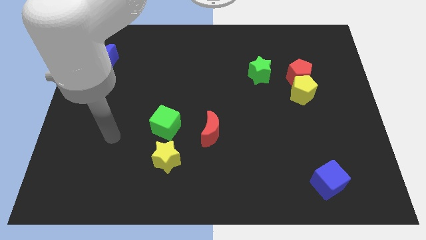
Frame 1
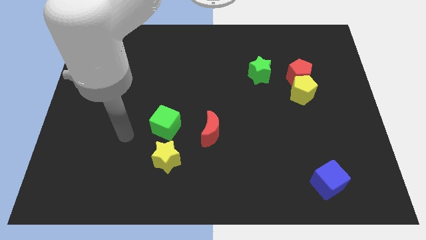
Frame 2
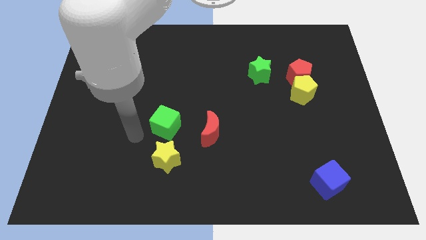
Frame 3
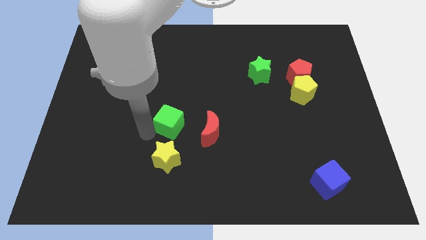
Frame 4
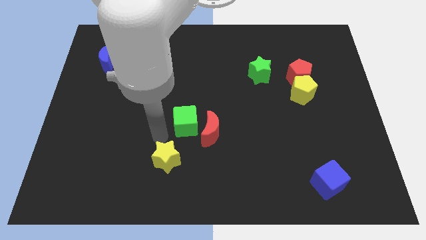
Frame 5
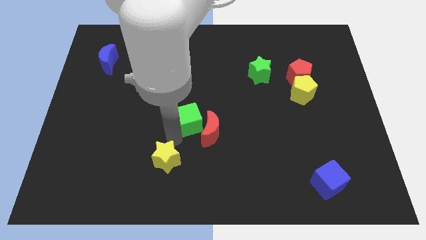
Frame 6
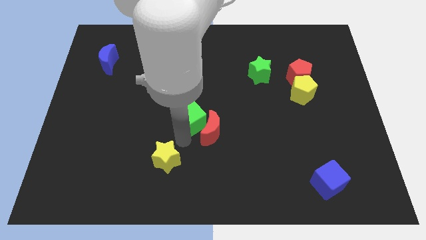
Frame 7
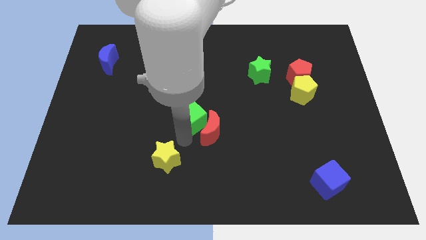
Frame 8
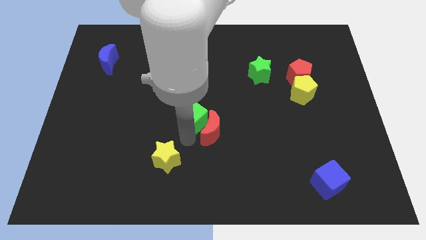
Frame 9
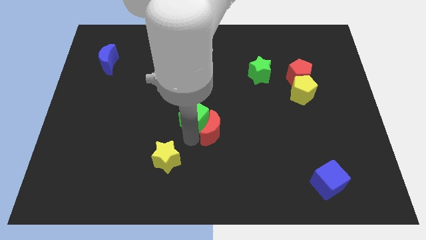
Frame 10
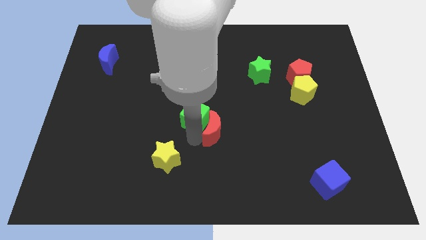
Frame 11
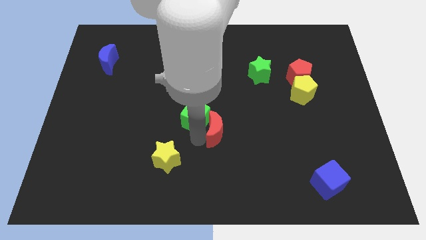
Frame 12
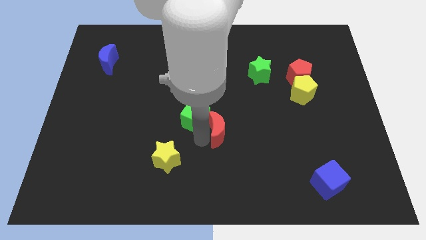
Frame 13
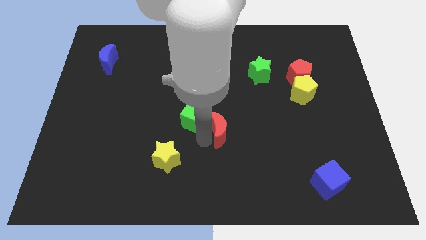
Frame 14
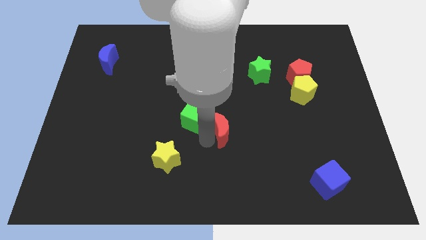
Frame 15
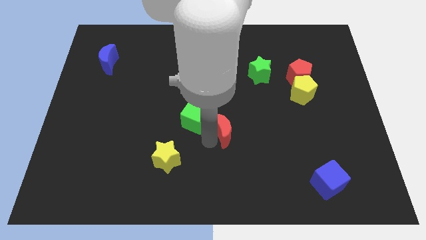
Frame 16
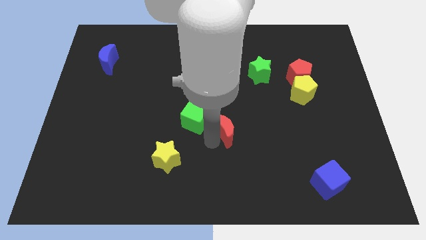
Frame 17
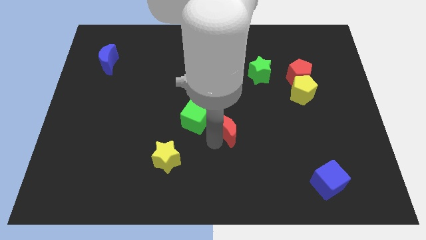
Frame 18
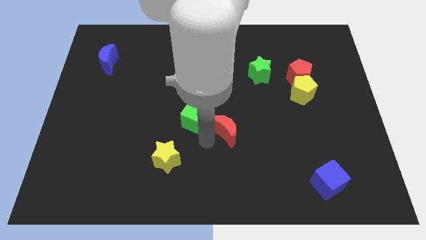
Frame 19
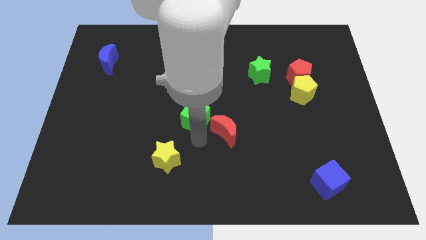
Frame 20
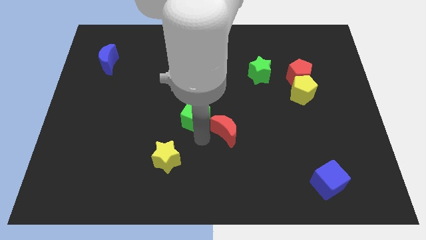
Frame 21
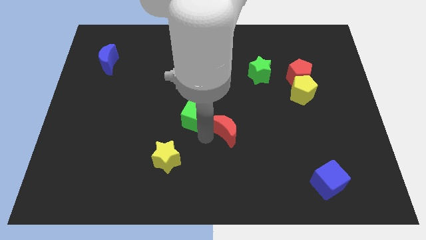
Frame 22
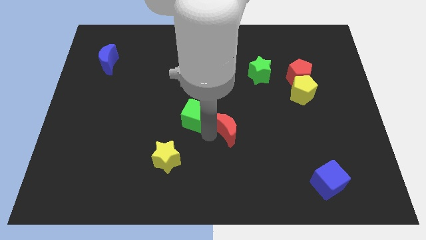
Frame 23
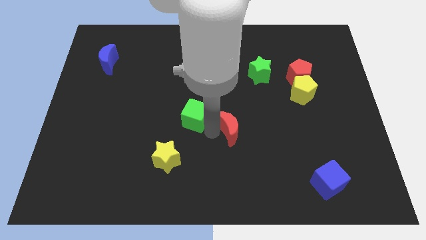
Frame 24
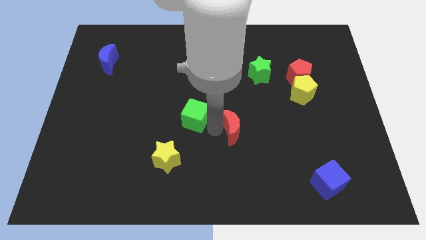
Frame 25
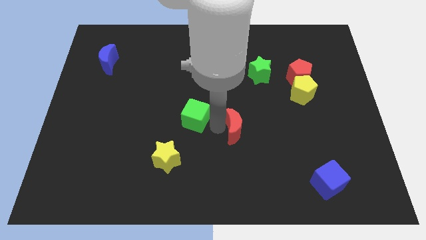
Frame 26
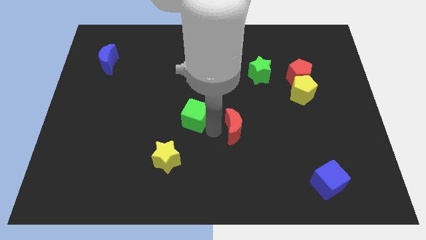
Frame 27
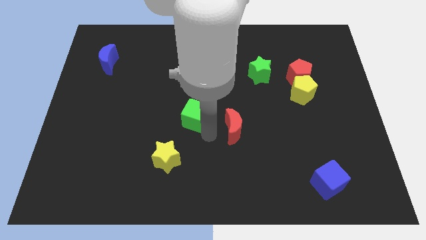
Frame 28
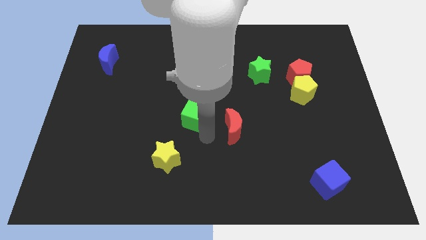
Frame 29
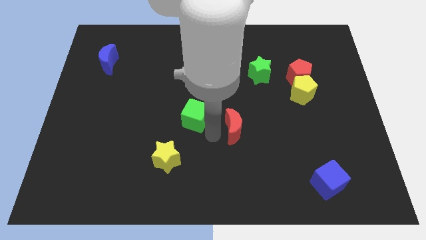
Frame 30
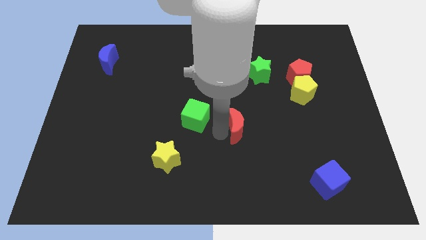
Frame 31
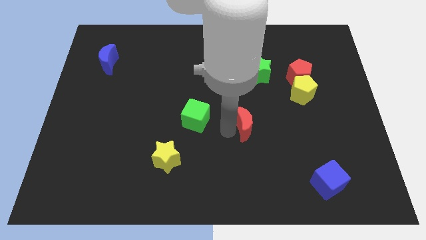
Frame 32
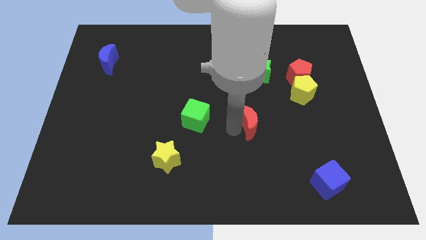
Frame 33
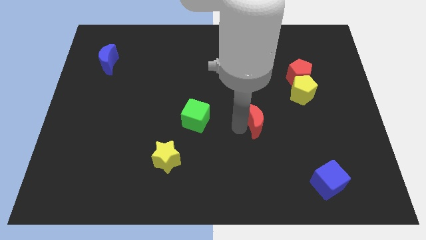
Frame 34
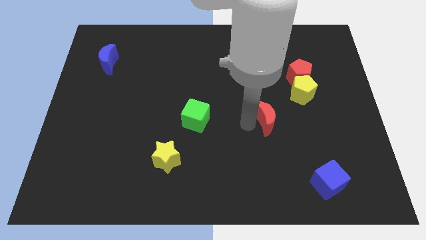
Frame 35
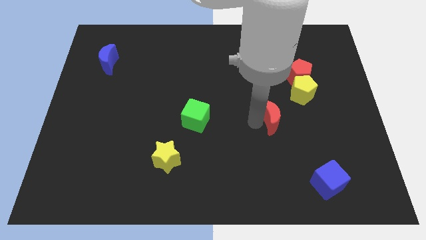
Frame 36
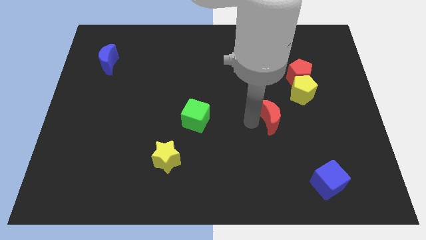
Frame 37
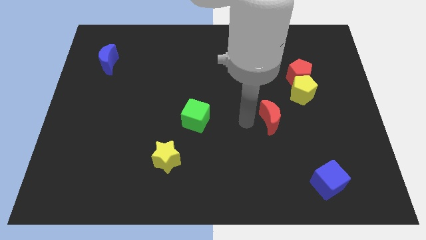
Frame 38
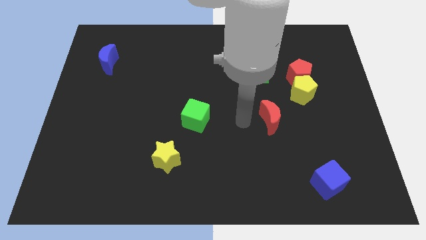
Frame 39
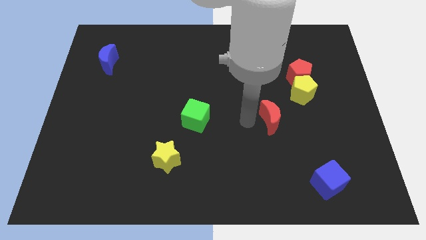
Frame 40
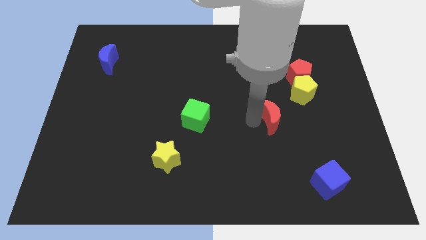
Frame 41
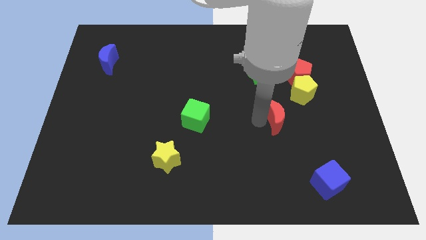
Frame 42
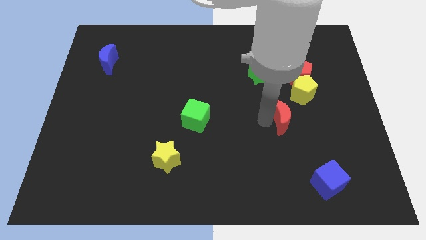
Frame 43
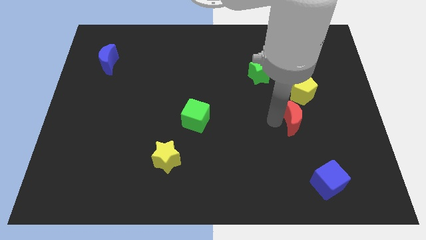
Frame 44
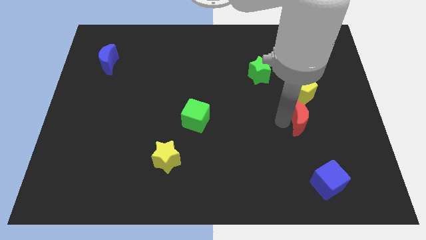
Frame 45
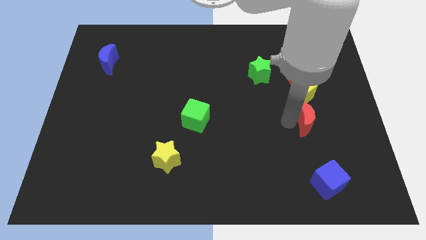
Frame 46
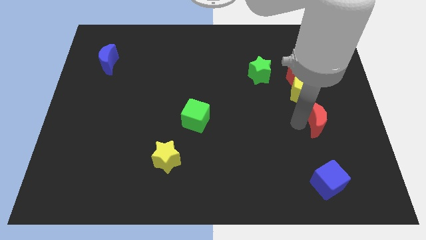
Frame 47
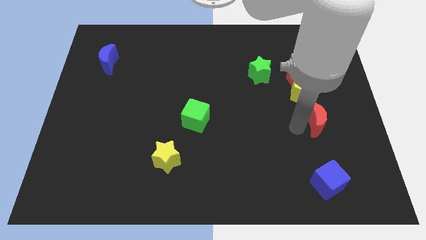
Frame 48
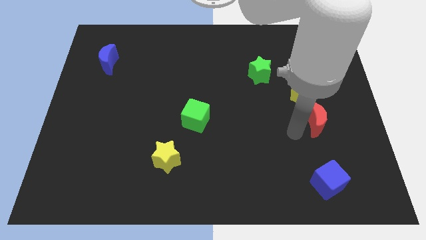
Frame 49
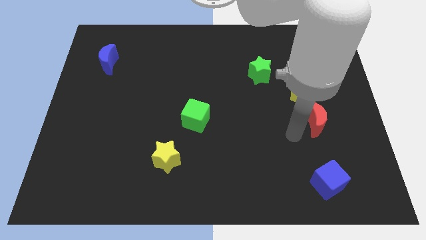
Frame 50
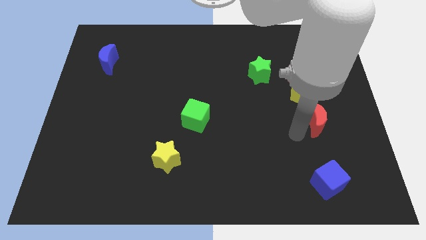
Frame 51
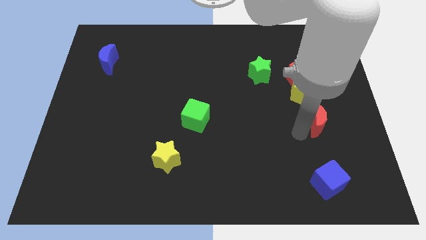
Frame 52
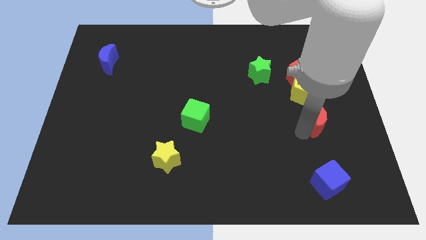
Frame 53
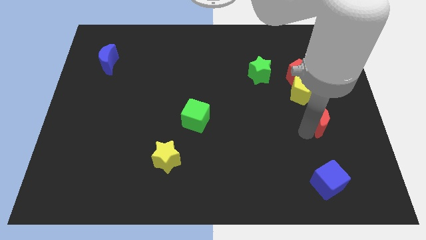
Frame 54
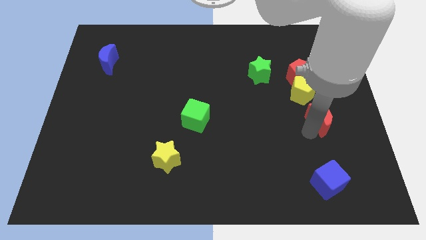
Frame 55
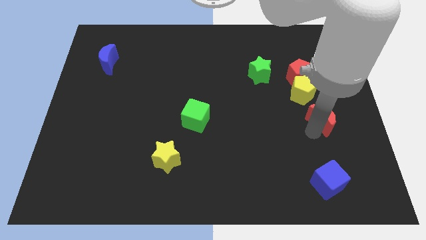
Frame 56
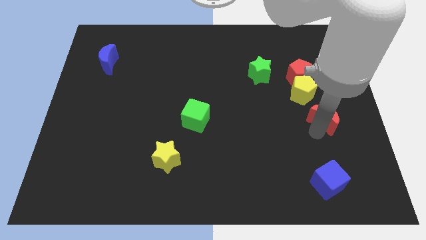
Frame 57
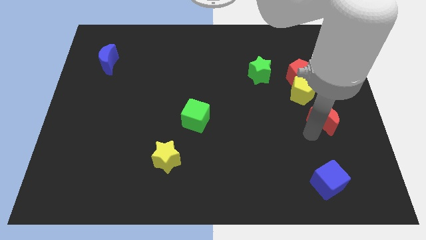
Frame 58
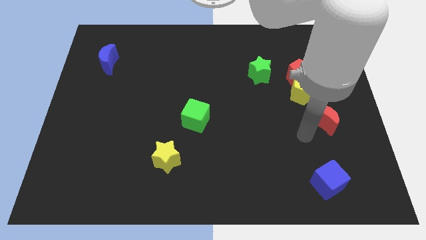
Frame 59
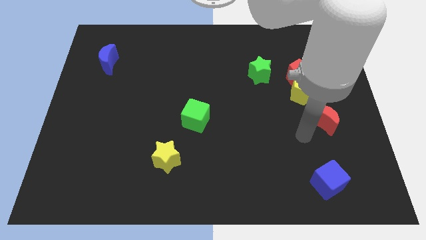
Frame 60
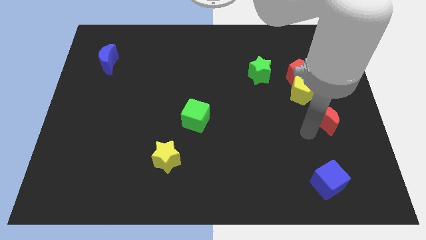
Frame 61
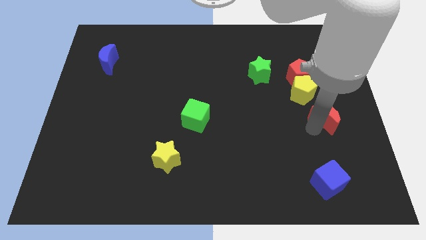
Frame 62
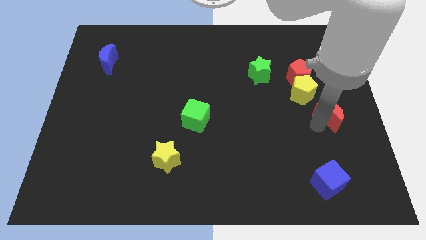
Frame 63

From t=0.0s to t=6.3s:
put the red moon to the right side of the board

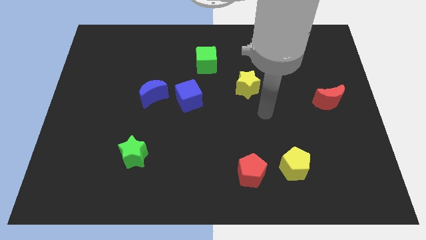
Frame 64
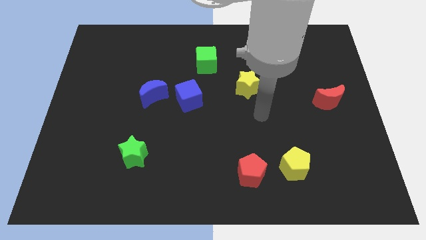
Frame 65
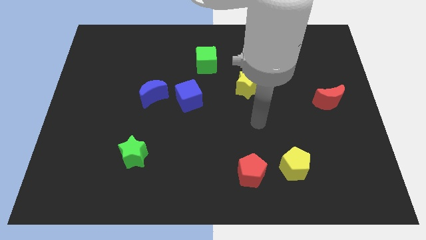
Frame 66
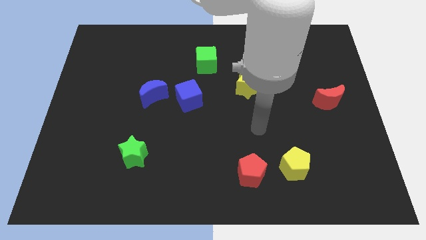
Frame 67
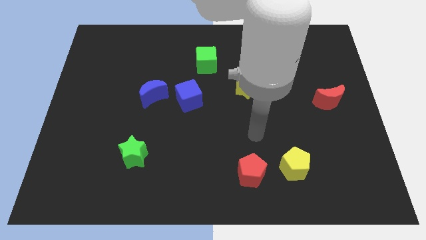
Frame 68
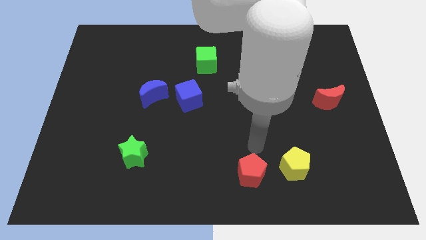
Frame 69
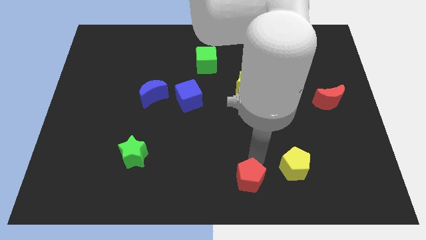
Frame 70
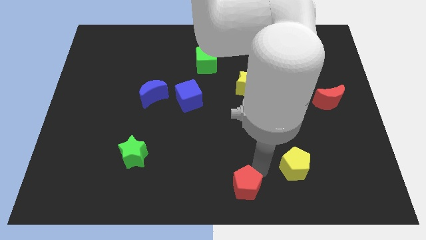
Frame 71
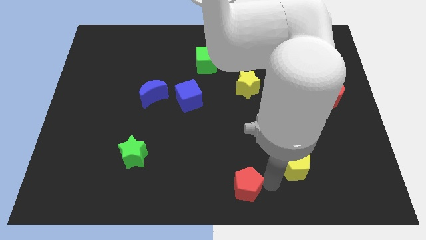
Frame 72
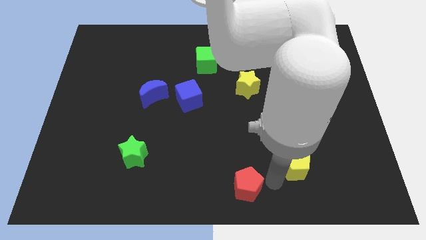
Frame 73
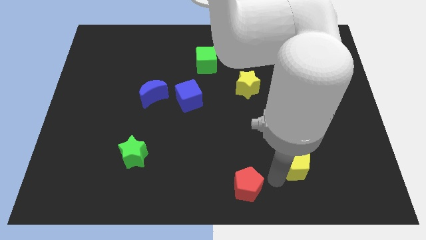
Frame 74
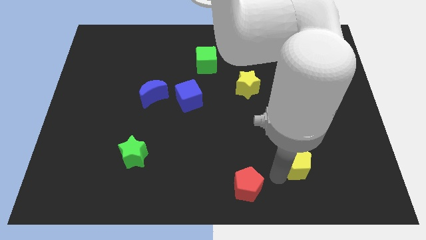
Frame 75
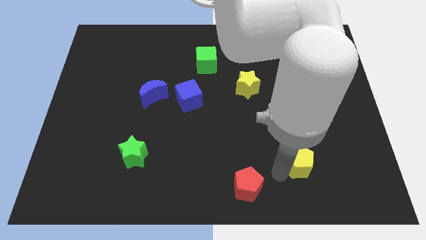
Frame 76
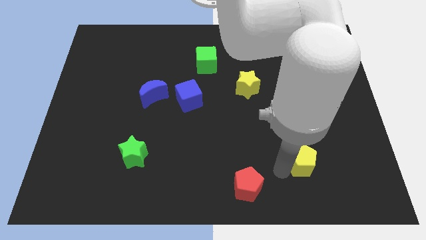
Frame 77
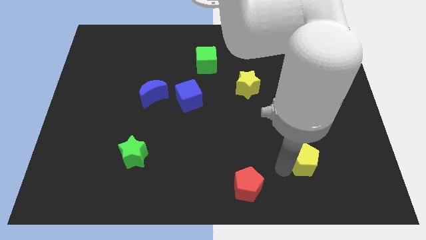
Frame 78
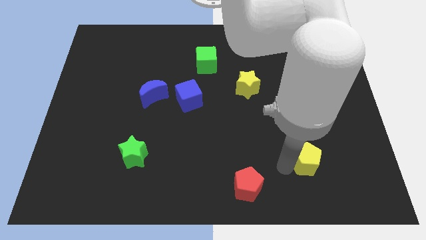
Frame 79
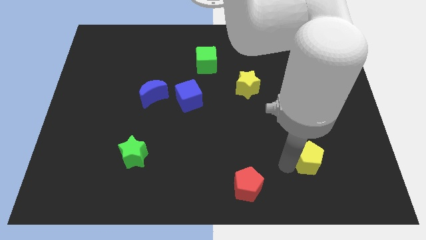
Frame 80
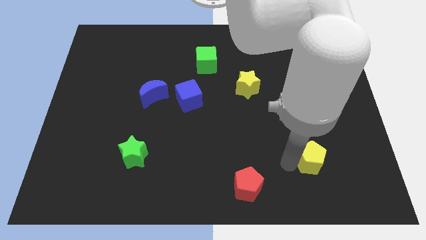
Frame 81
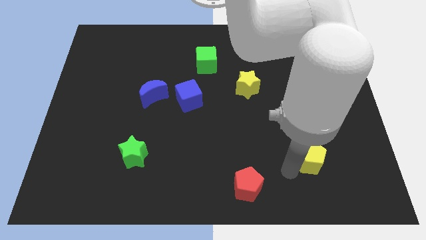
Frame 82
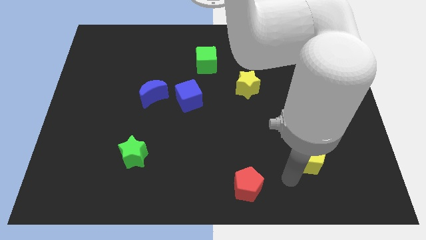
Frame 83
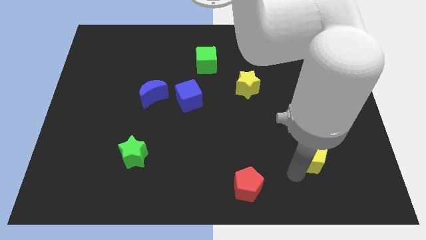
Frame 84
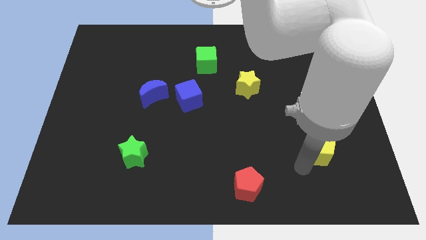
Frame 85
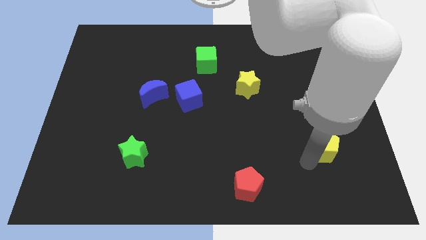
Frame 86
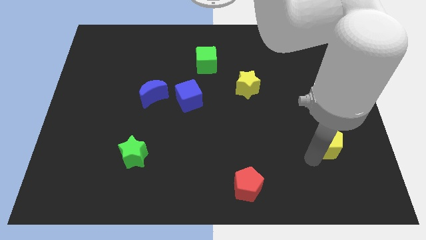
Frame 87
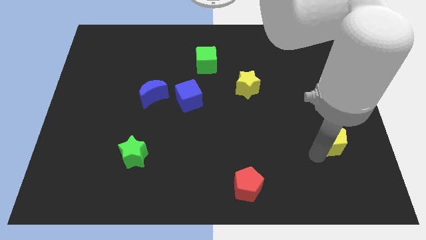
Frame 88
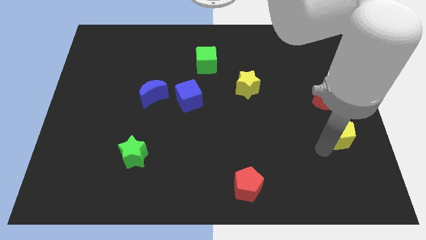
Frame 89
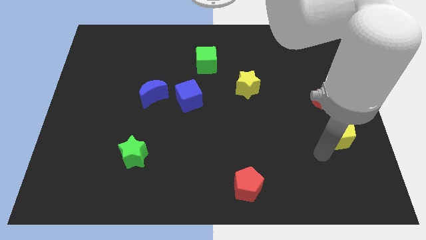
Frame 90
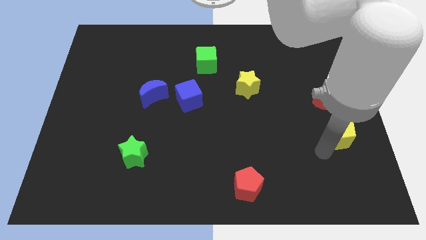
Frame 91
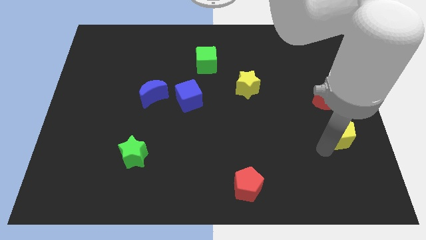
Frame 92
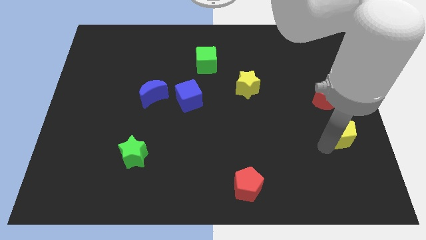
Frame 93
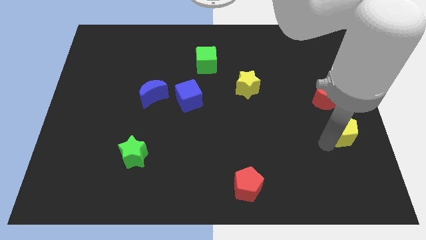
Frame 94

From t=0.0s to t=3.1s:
push the yellow pentagon to the right side of the board
